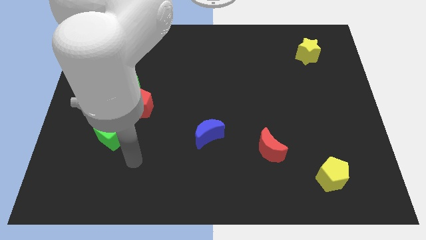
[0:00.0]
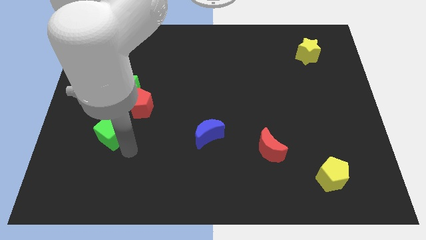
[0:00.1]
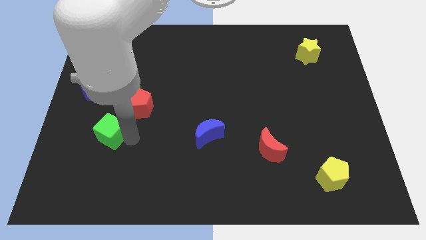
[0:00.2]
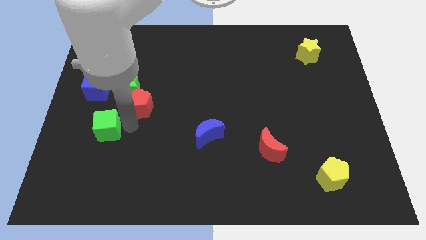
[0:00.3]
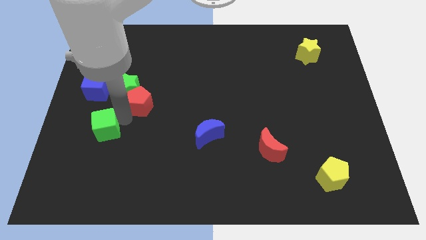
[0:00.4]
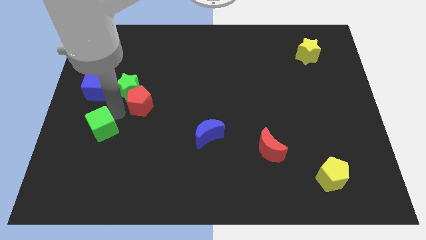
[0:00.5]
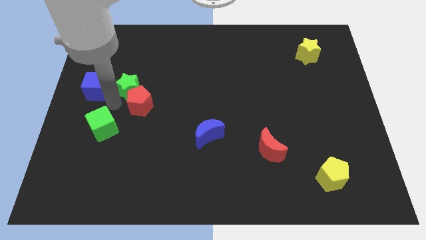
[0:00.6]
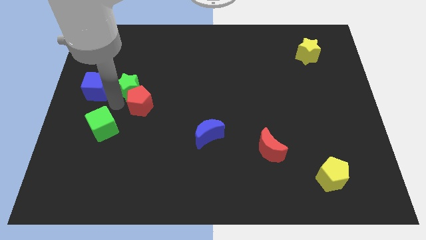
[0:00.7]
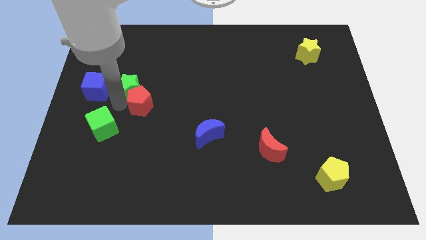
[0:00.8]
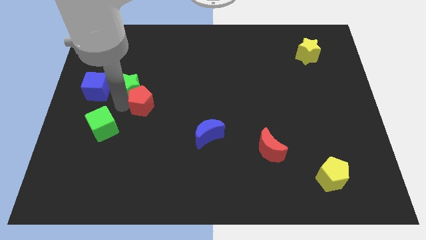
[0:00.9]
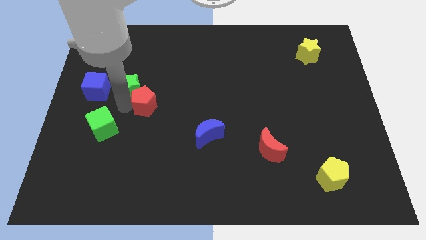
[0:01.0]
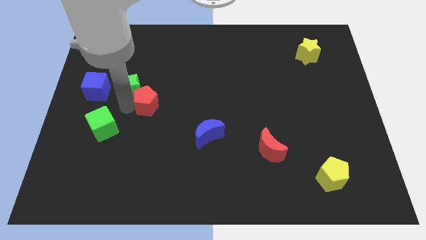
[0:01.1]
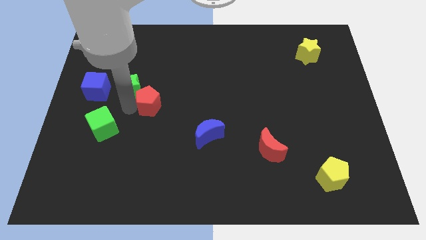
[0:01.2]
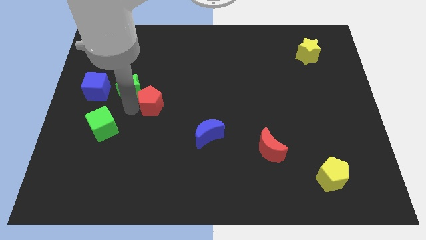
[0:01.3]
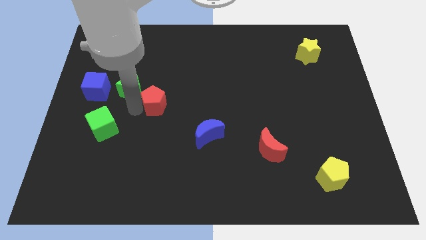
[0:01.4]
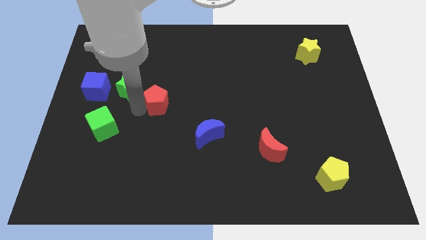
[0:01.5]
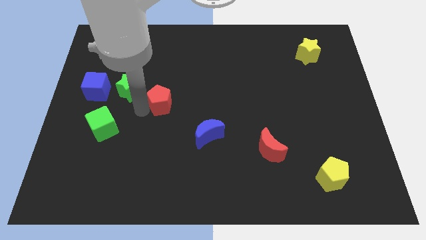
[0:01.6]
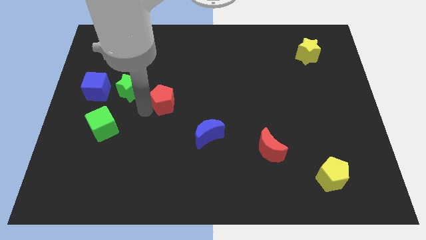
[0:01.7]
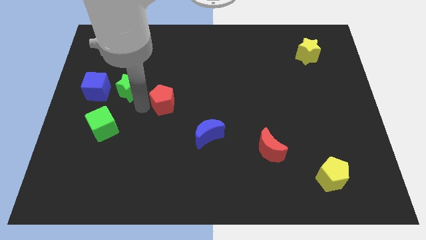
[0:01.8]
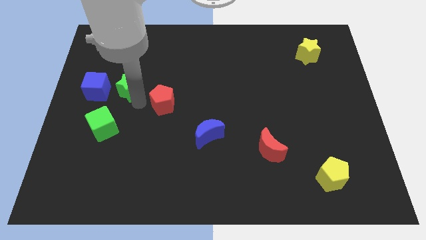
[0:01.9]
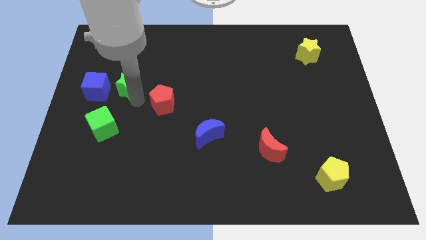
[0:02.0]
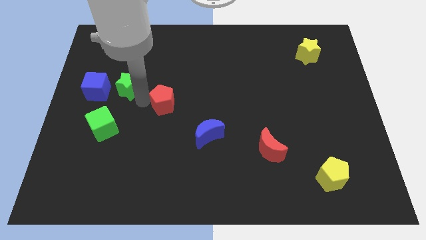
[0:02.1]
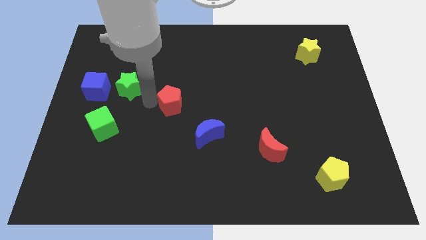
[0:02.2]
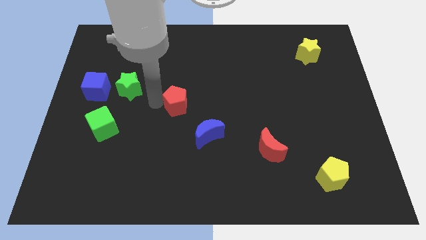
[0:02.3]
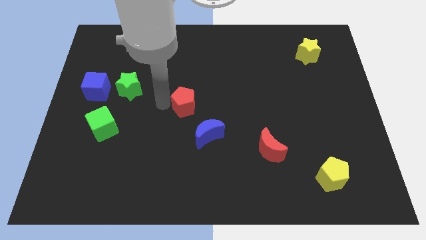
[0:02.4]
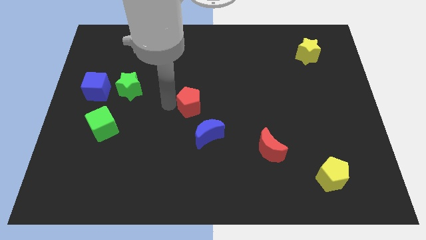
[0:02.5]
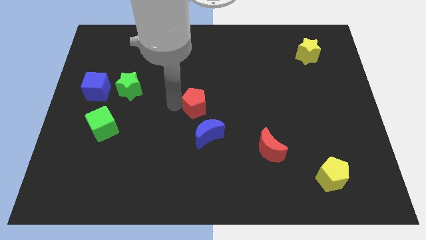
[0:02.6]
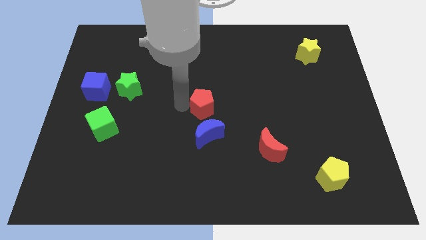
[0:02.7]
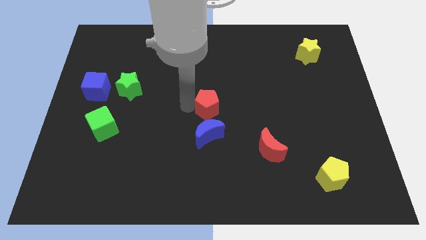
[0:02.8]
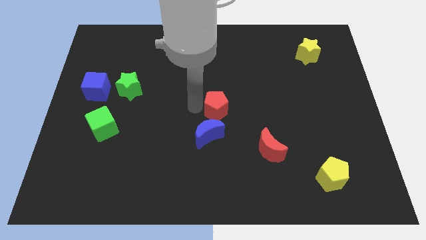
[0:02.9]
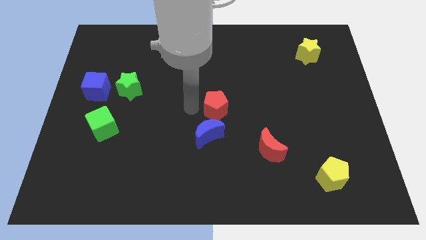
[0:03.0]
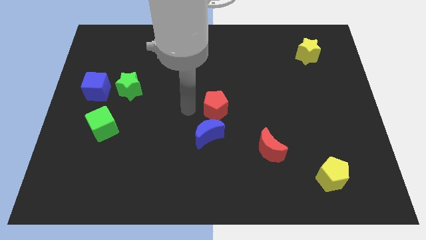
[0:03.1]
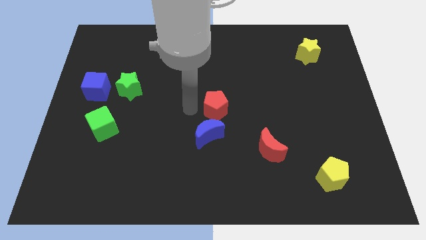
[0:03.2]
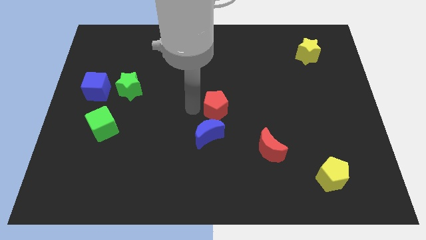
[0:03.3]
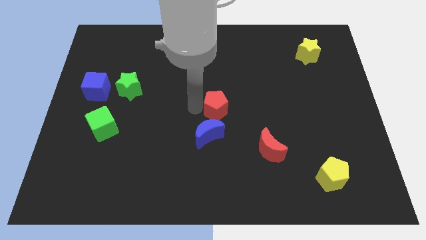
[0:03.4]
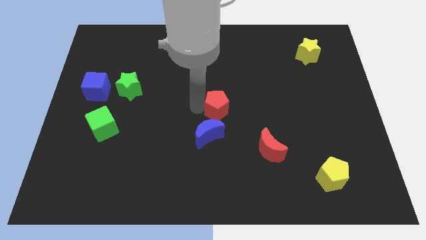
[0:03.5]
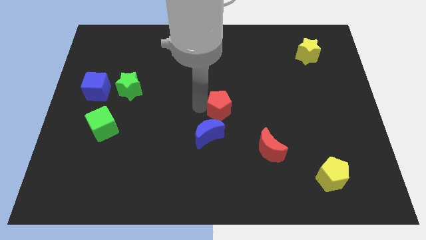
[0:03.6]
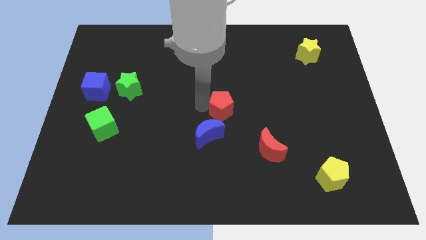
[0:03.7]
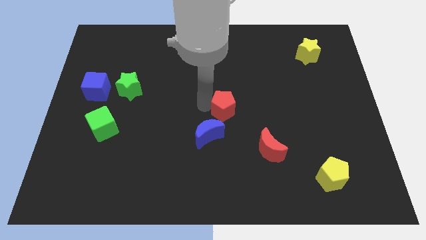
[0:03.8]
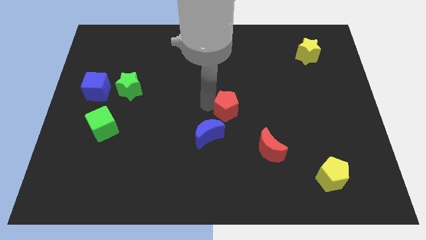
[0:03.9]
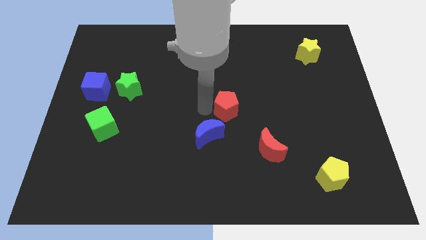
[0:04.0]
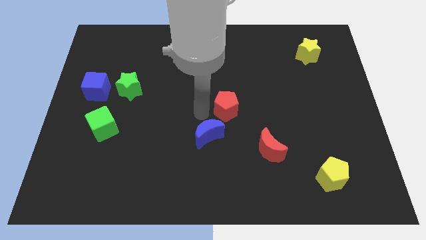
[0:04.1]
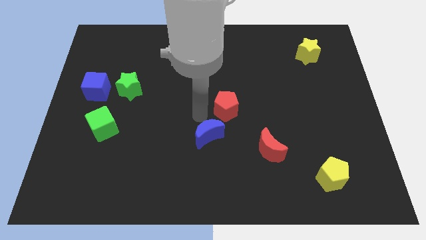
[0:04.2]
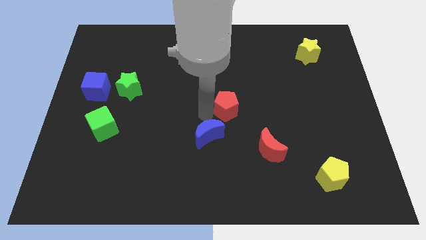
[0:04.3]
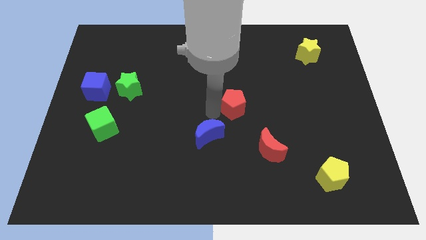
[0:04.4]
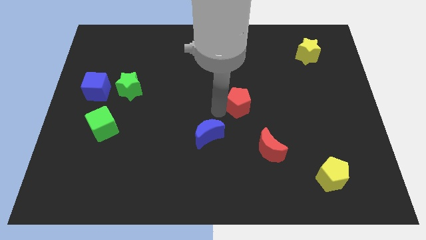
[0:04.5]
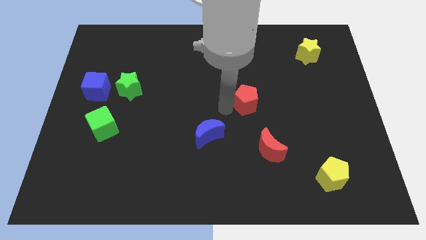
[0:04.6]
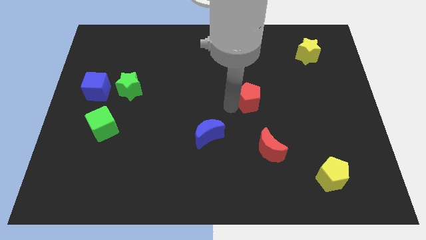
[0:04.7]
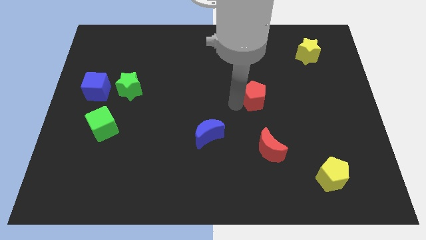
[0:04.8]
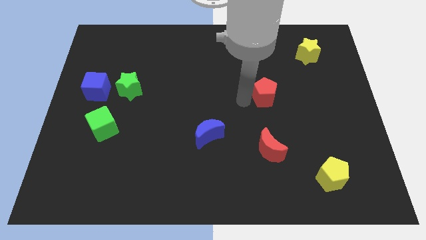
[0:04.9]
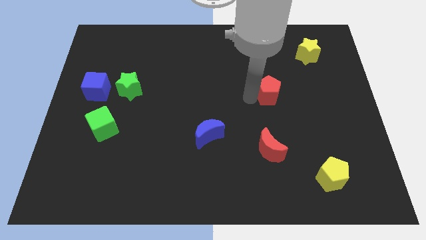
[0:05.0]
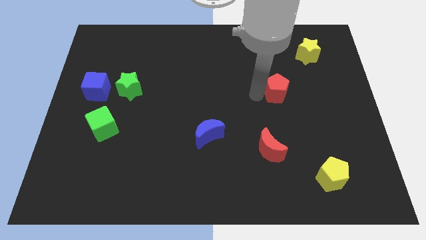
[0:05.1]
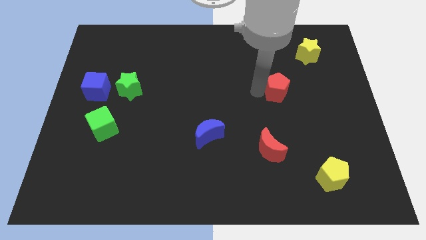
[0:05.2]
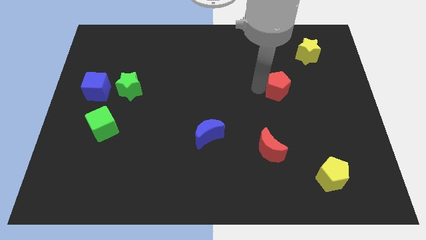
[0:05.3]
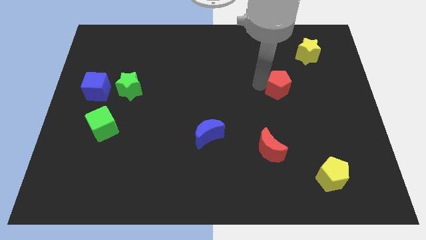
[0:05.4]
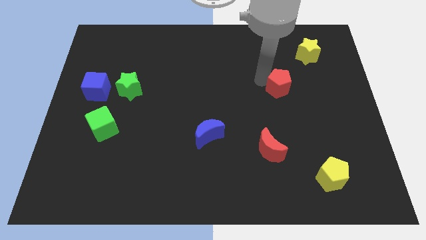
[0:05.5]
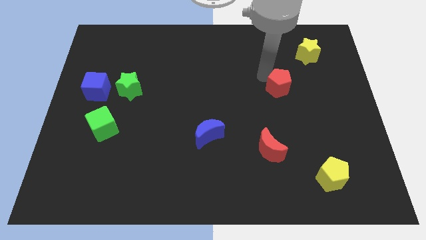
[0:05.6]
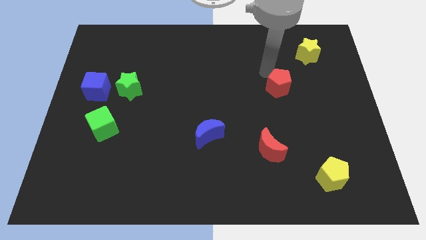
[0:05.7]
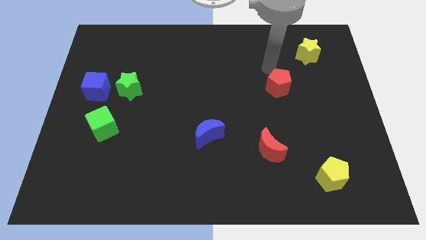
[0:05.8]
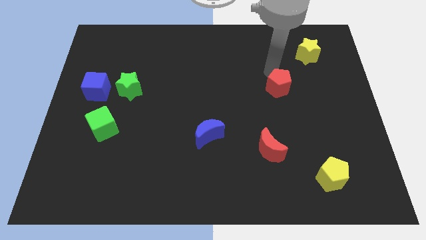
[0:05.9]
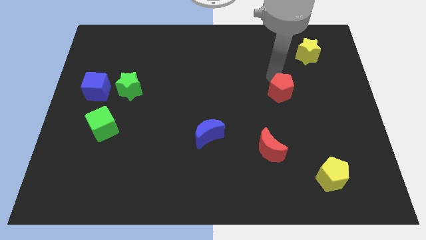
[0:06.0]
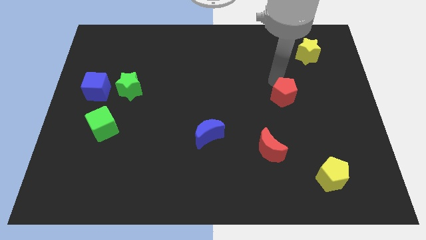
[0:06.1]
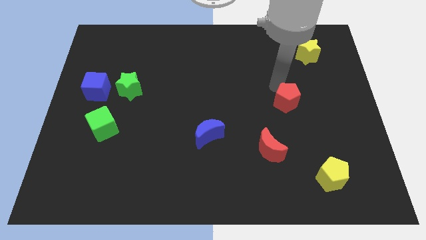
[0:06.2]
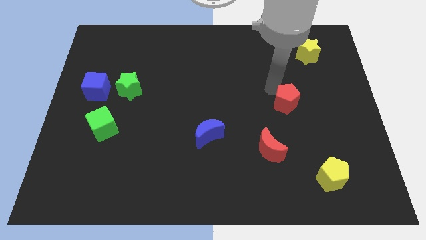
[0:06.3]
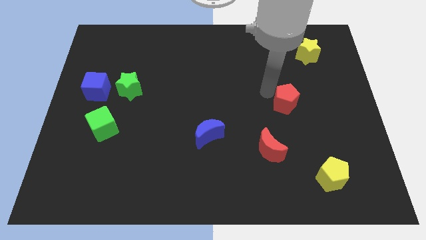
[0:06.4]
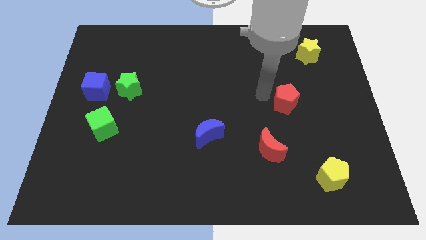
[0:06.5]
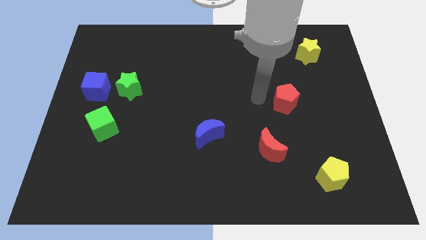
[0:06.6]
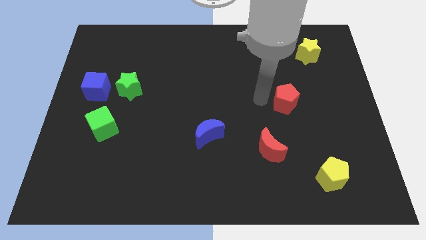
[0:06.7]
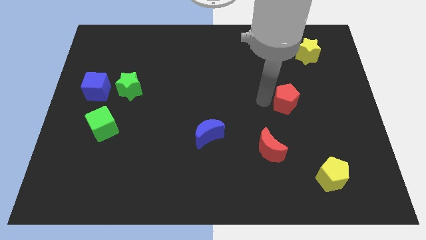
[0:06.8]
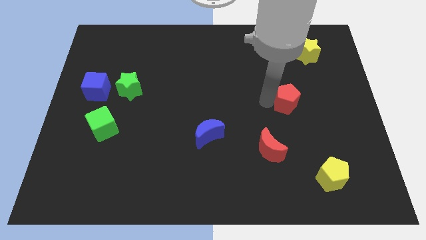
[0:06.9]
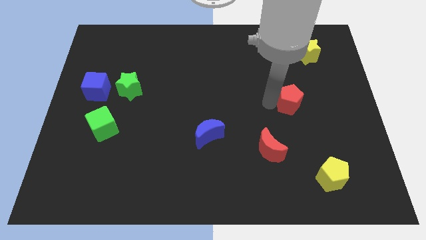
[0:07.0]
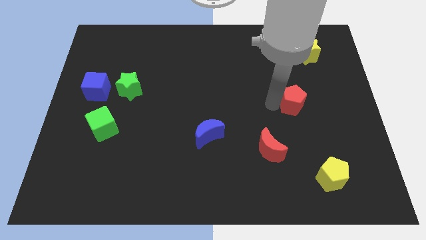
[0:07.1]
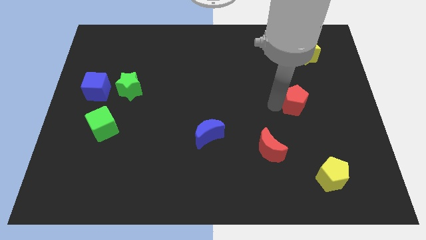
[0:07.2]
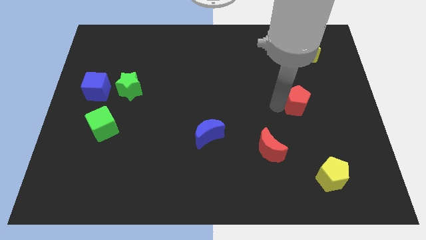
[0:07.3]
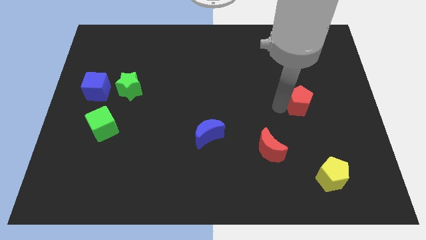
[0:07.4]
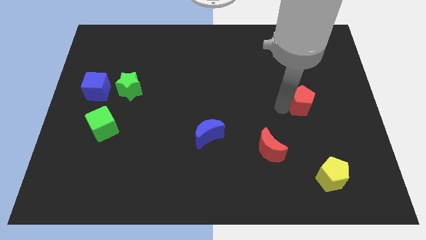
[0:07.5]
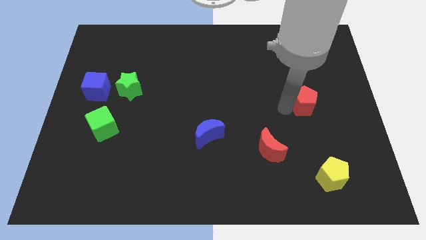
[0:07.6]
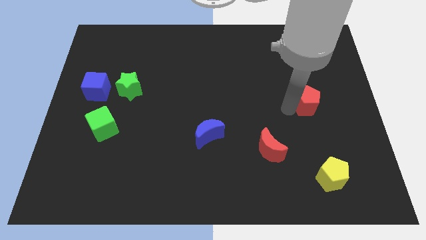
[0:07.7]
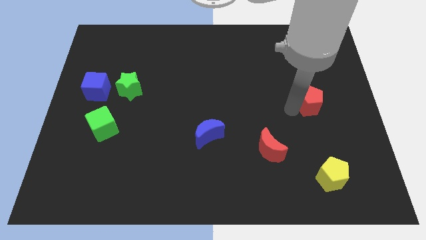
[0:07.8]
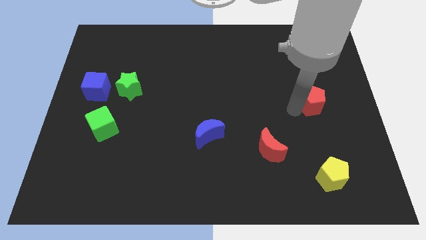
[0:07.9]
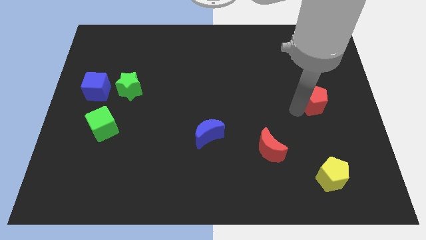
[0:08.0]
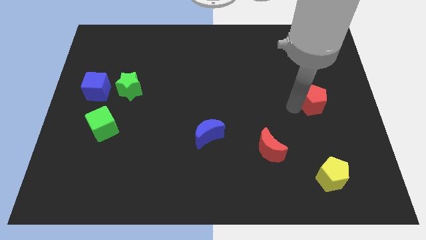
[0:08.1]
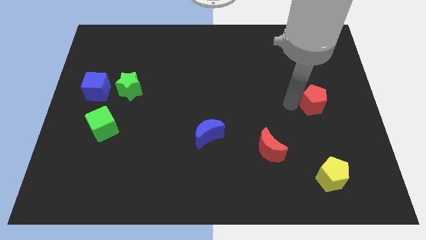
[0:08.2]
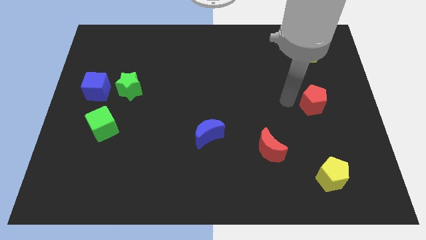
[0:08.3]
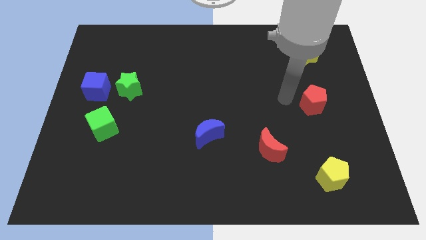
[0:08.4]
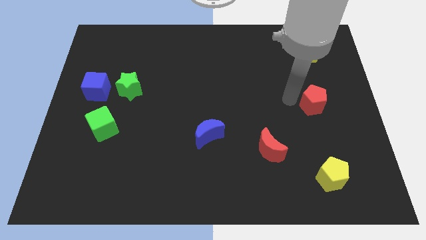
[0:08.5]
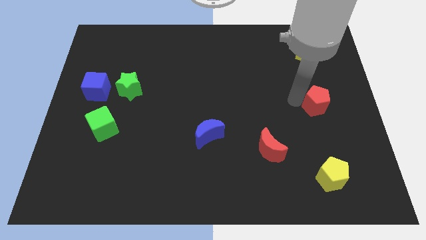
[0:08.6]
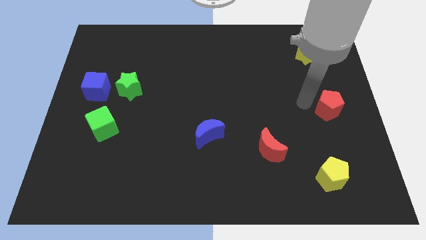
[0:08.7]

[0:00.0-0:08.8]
put the red pentagon to the right side of the board
